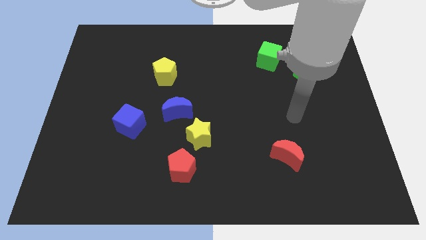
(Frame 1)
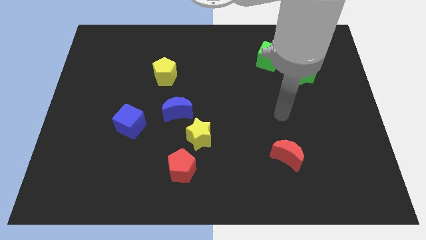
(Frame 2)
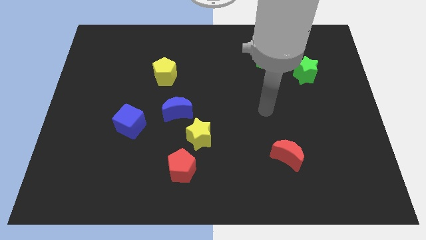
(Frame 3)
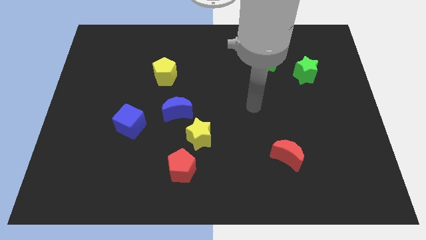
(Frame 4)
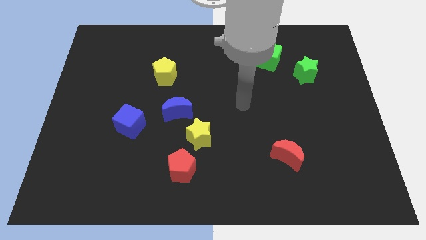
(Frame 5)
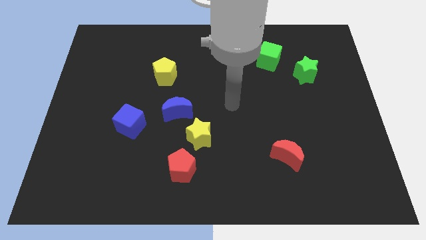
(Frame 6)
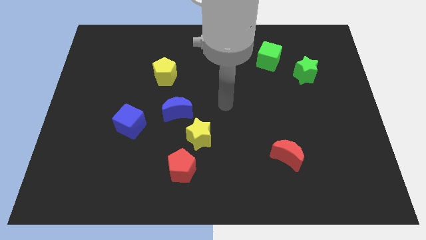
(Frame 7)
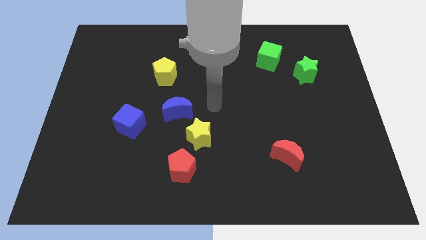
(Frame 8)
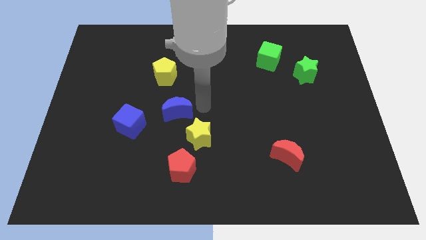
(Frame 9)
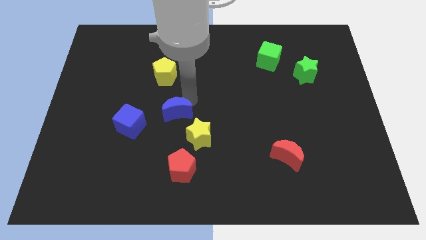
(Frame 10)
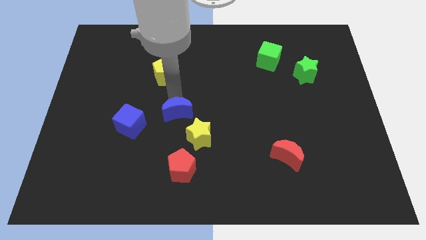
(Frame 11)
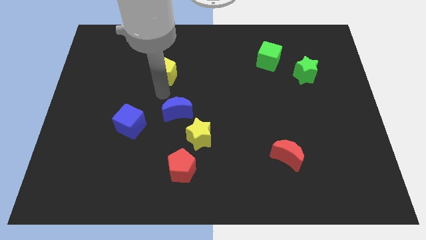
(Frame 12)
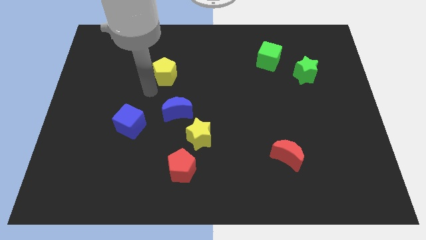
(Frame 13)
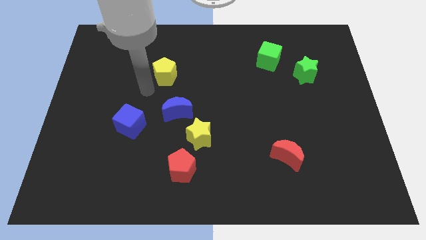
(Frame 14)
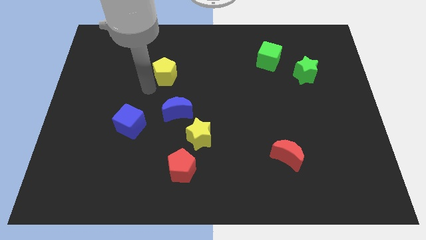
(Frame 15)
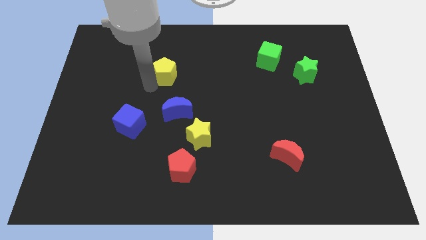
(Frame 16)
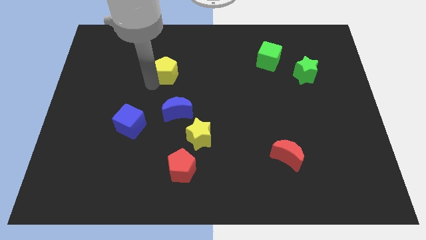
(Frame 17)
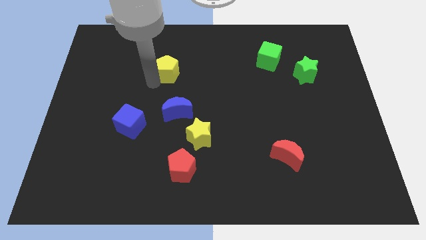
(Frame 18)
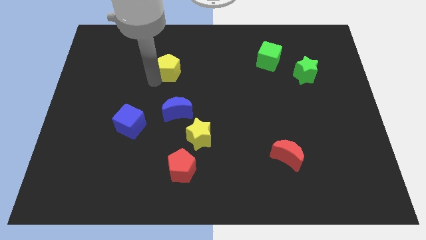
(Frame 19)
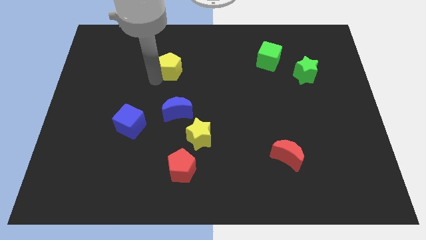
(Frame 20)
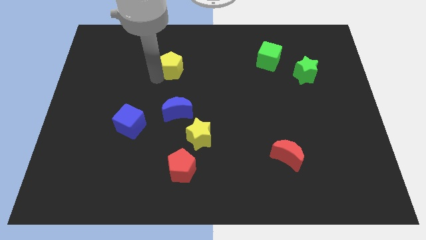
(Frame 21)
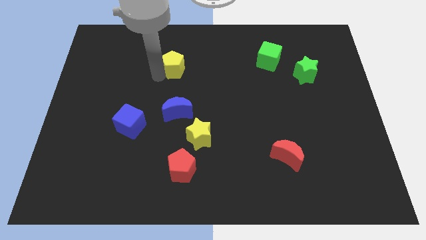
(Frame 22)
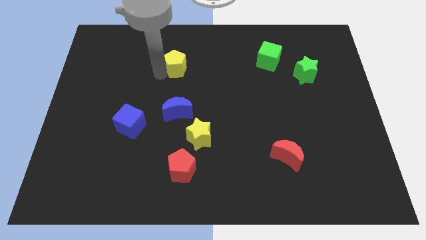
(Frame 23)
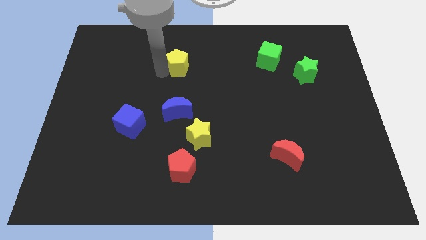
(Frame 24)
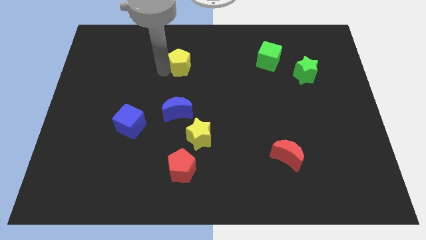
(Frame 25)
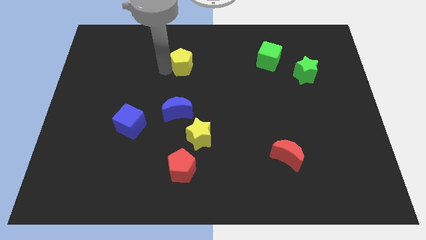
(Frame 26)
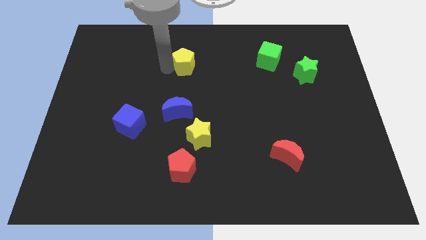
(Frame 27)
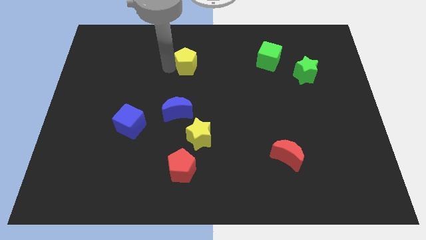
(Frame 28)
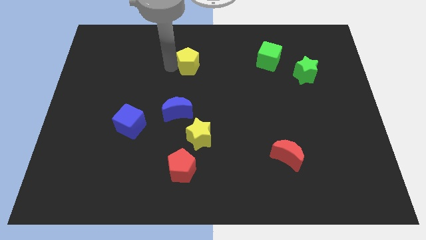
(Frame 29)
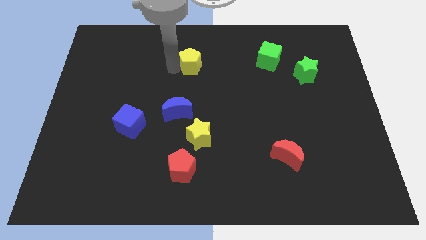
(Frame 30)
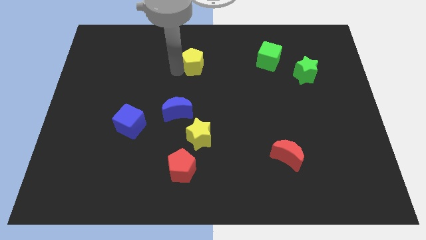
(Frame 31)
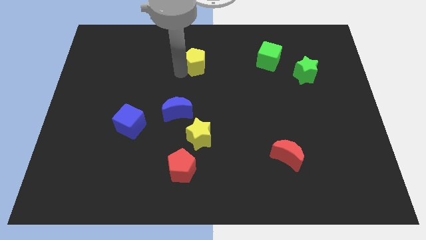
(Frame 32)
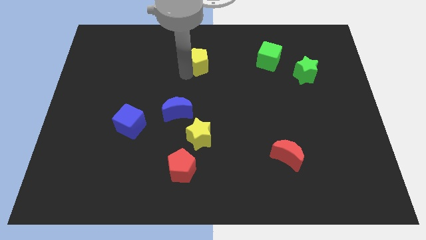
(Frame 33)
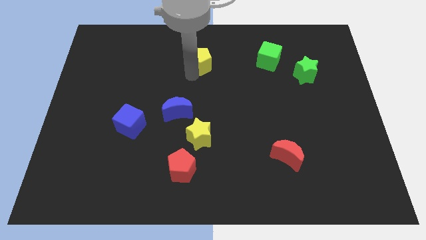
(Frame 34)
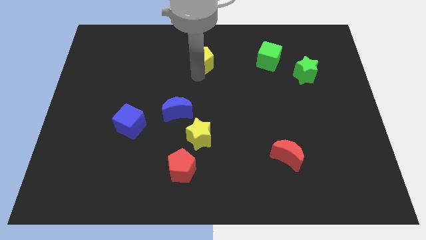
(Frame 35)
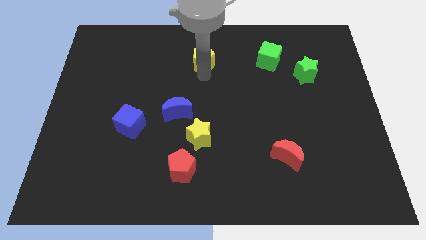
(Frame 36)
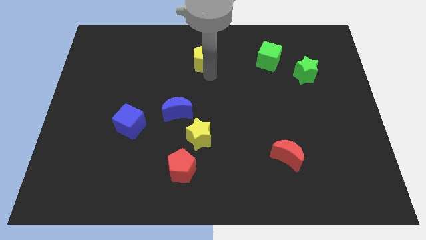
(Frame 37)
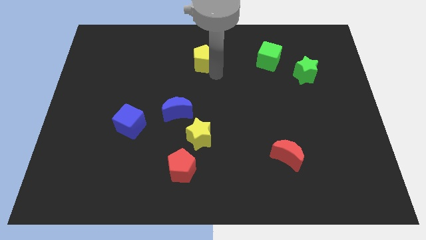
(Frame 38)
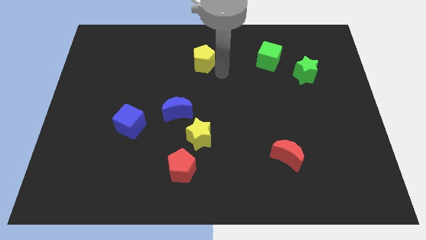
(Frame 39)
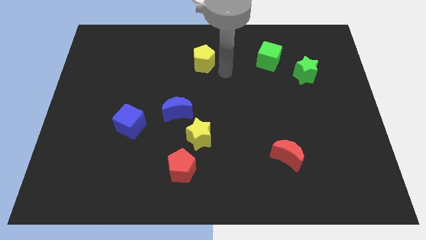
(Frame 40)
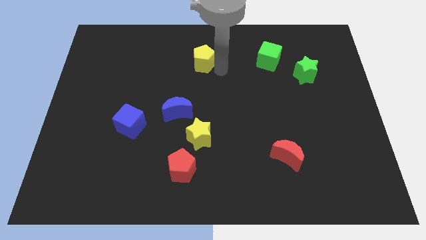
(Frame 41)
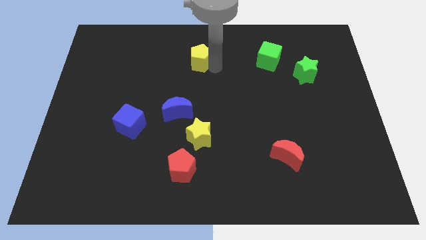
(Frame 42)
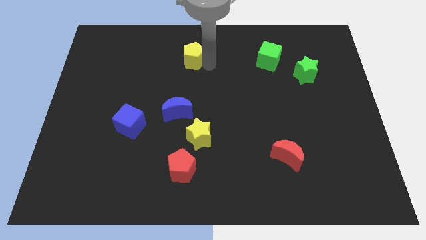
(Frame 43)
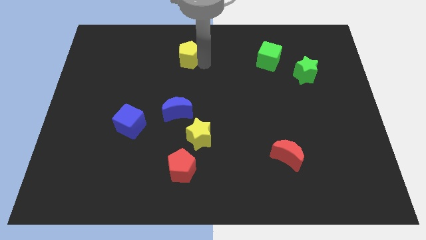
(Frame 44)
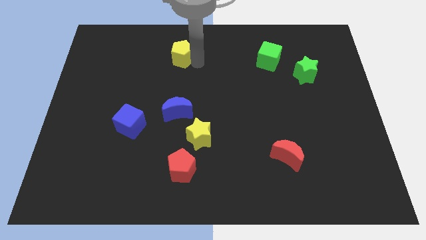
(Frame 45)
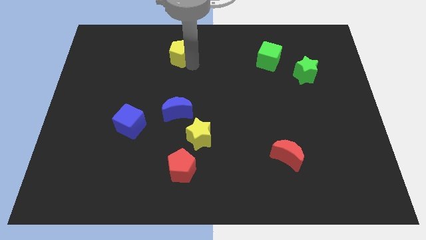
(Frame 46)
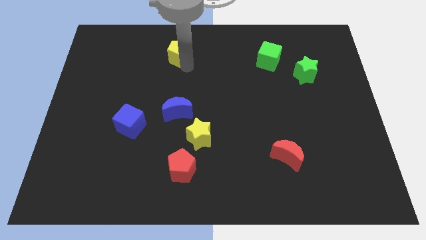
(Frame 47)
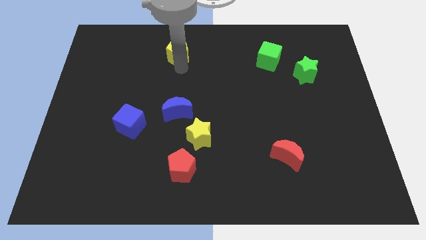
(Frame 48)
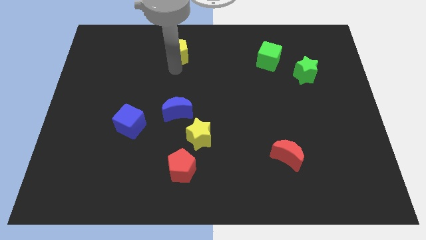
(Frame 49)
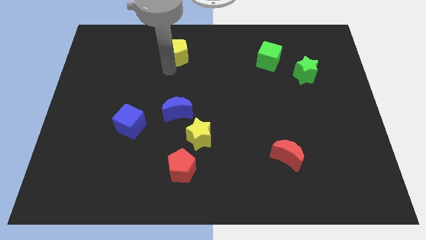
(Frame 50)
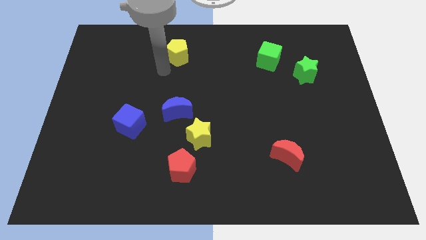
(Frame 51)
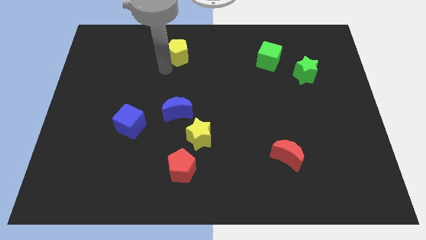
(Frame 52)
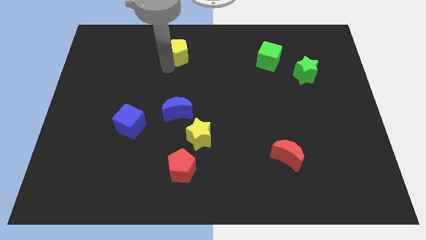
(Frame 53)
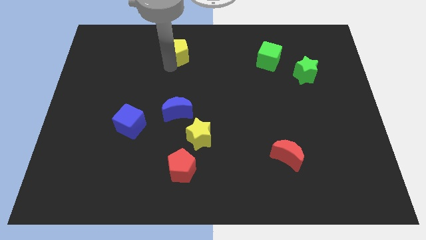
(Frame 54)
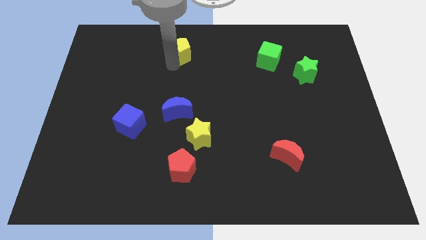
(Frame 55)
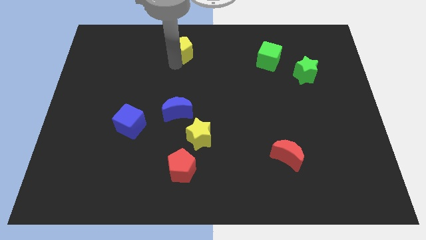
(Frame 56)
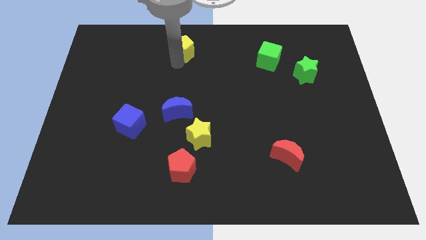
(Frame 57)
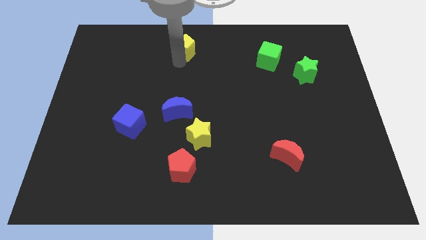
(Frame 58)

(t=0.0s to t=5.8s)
put the yellow pentagon to the top

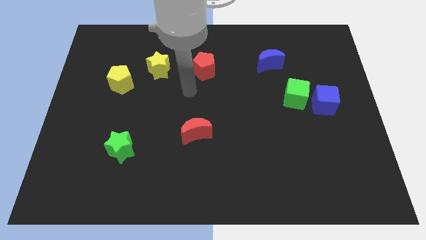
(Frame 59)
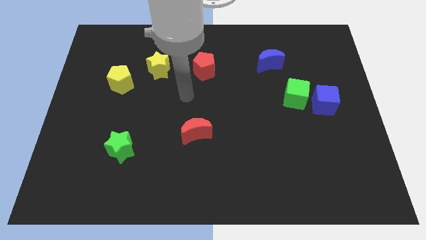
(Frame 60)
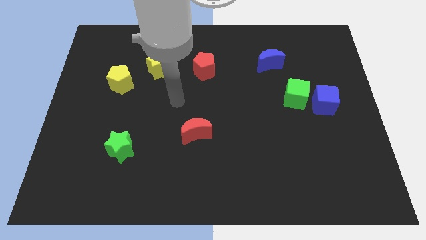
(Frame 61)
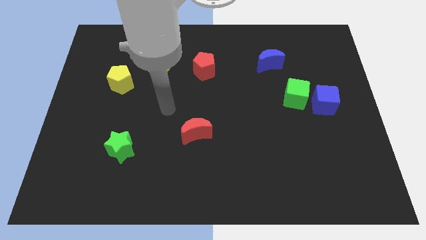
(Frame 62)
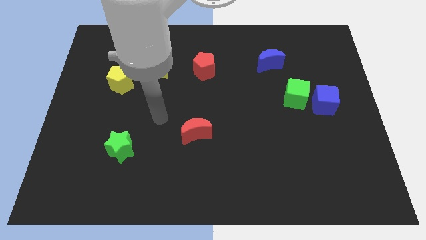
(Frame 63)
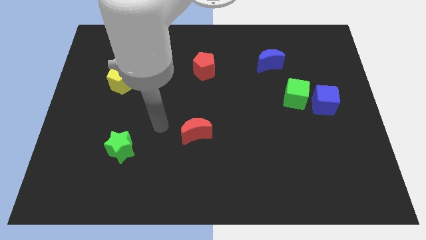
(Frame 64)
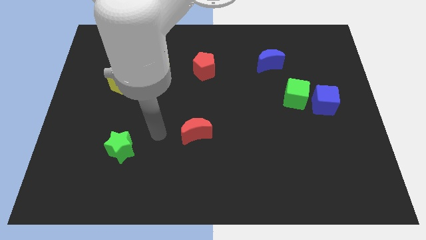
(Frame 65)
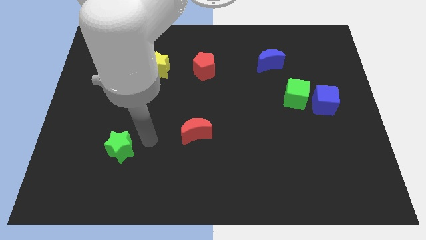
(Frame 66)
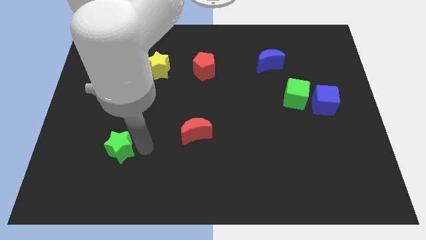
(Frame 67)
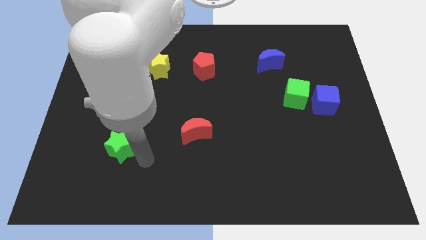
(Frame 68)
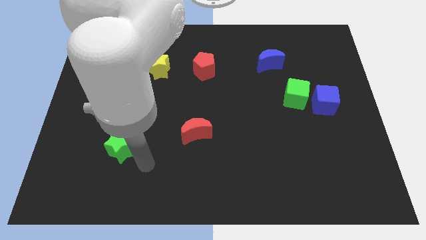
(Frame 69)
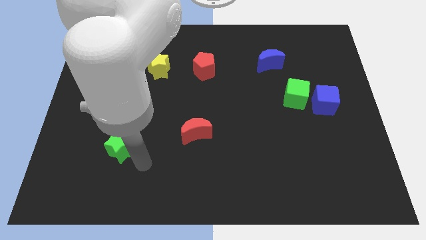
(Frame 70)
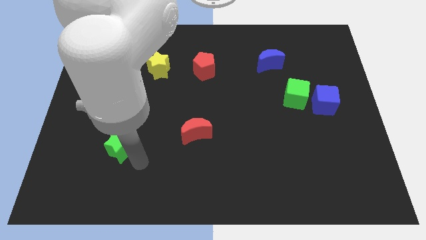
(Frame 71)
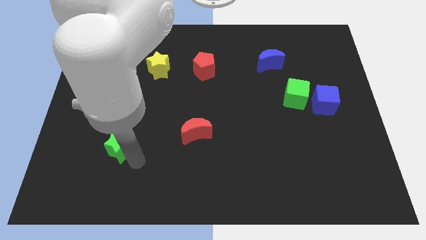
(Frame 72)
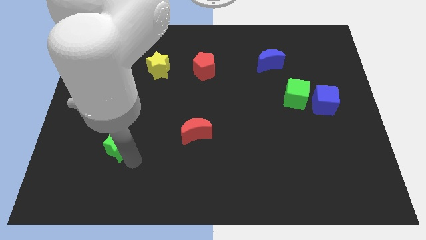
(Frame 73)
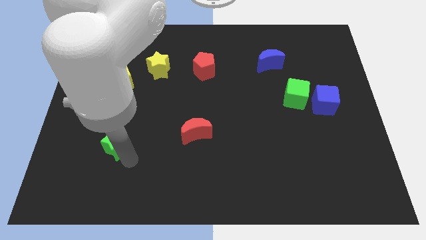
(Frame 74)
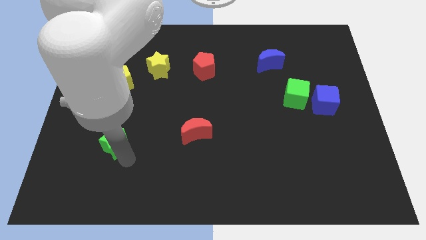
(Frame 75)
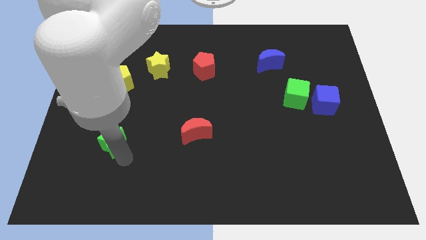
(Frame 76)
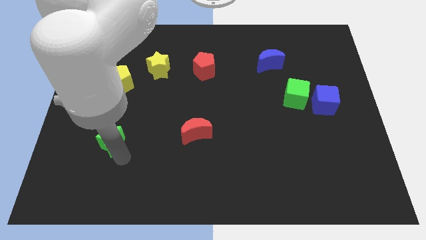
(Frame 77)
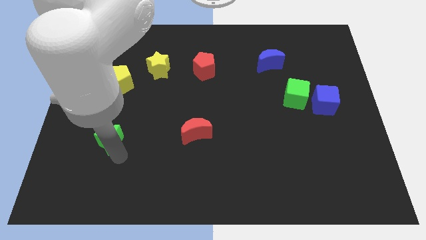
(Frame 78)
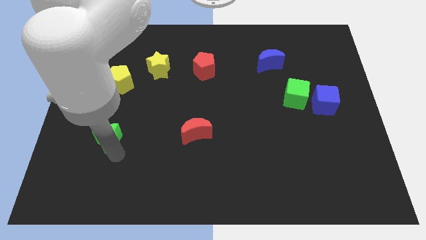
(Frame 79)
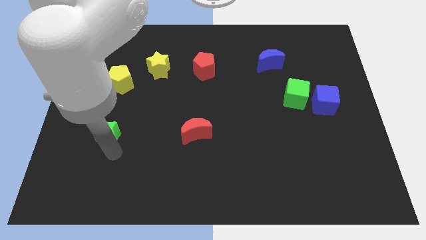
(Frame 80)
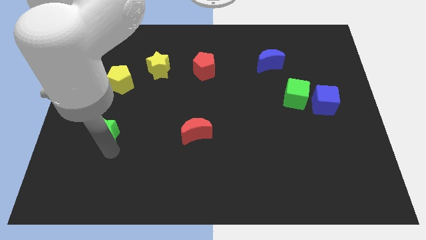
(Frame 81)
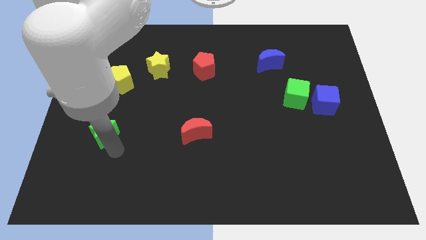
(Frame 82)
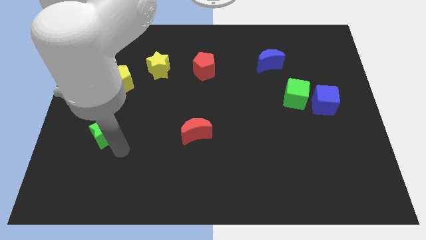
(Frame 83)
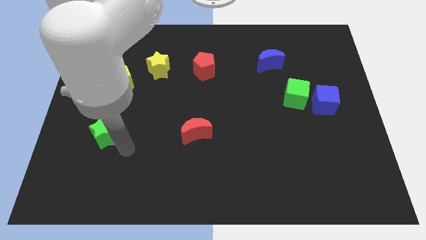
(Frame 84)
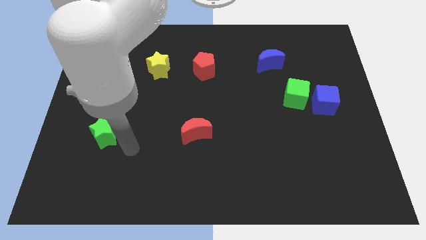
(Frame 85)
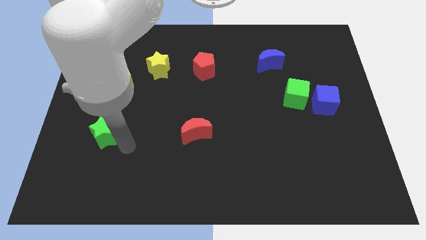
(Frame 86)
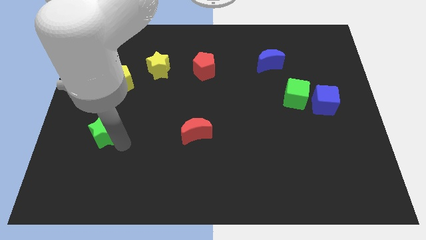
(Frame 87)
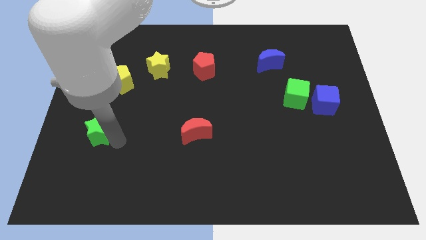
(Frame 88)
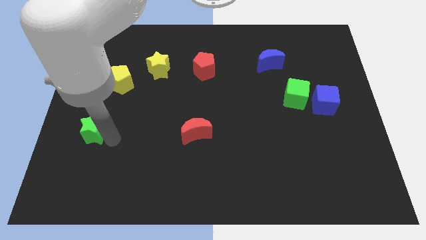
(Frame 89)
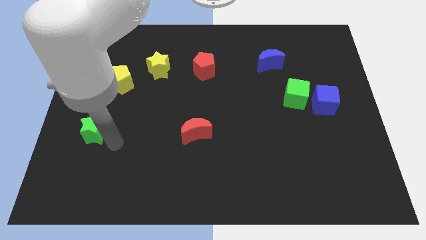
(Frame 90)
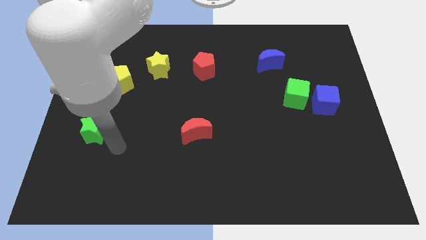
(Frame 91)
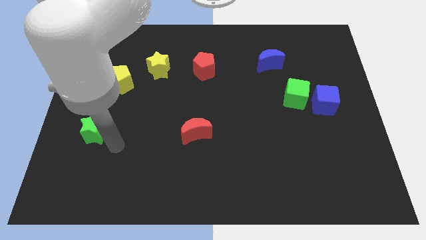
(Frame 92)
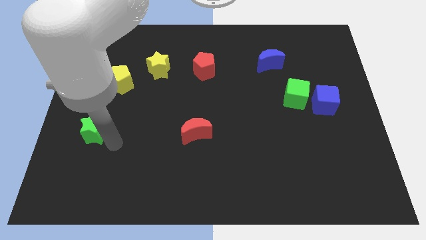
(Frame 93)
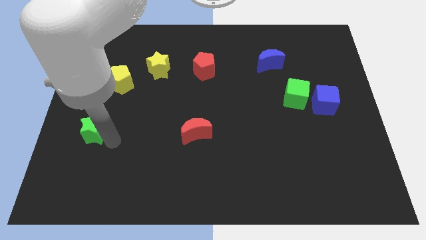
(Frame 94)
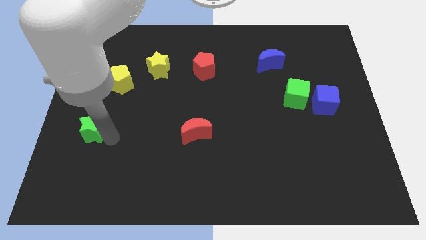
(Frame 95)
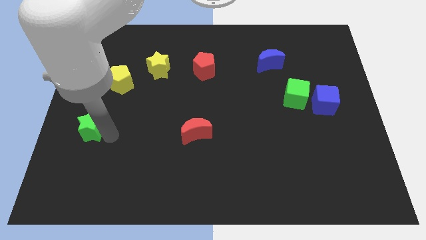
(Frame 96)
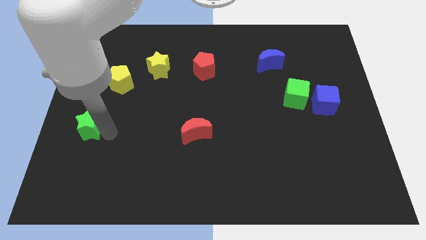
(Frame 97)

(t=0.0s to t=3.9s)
slide the green star to the center left
